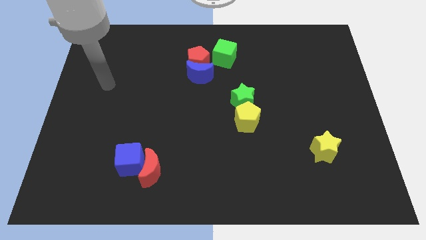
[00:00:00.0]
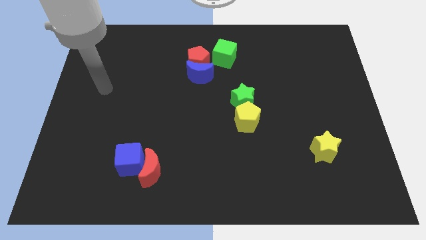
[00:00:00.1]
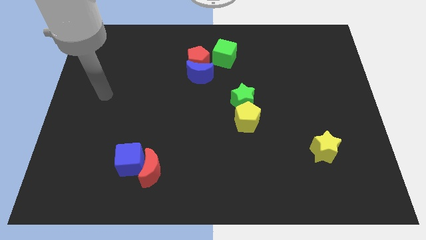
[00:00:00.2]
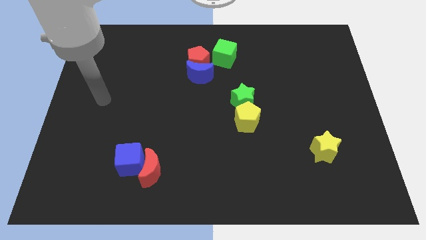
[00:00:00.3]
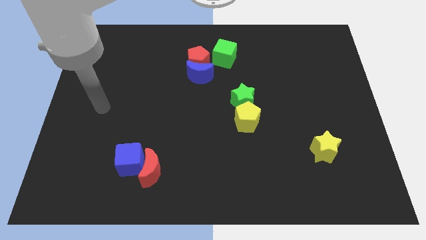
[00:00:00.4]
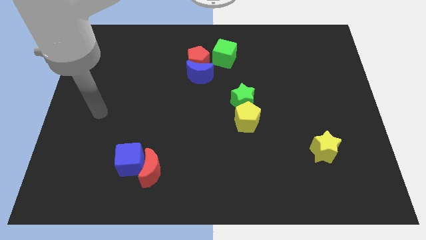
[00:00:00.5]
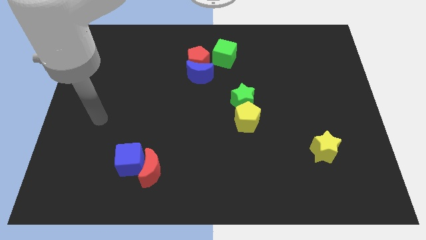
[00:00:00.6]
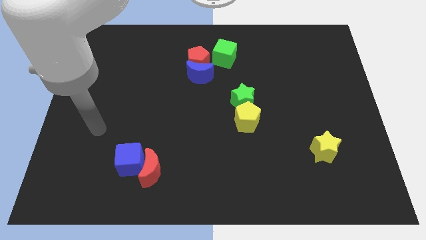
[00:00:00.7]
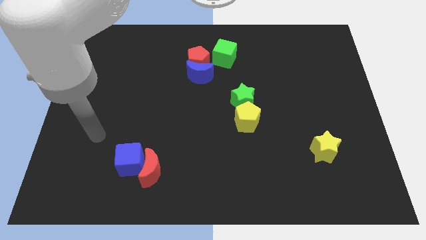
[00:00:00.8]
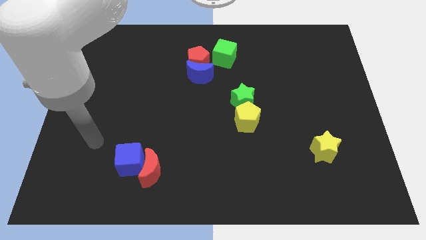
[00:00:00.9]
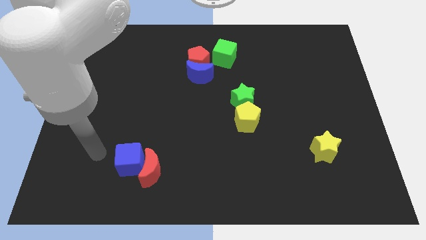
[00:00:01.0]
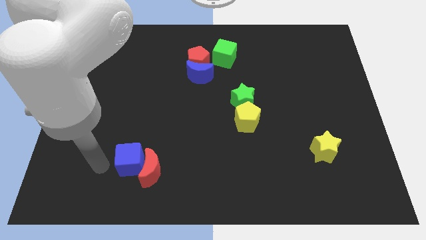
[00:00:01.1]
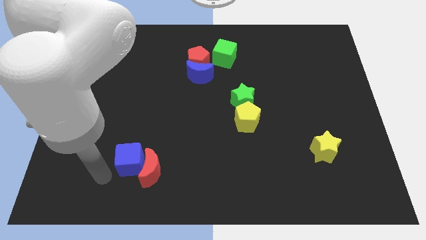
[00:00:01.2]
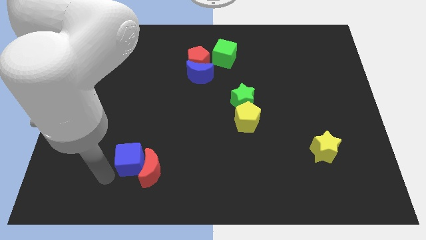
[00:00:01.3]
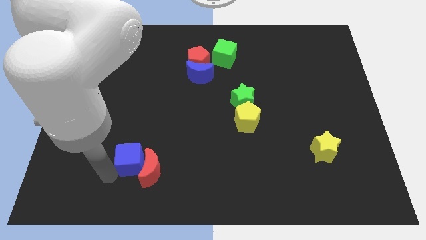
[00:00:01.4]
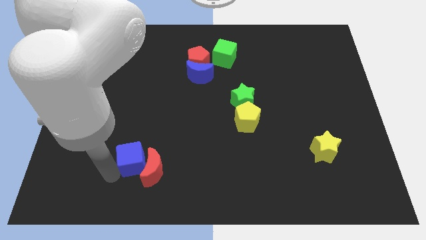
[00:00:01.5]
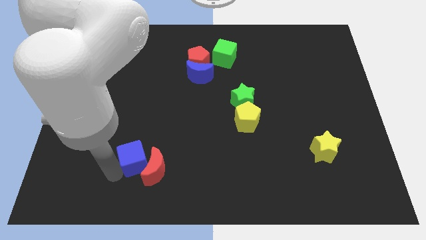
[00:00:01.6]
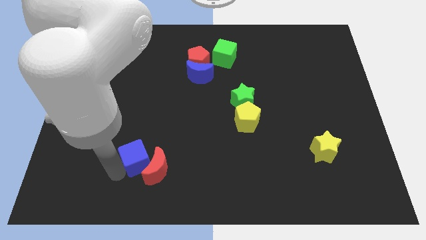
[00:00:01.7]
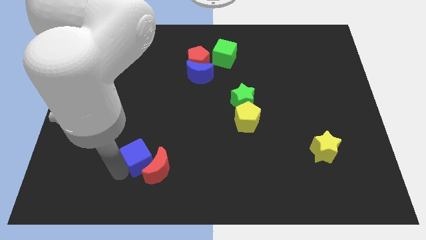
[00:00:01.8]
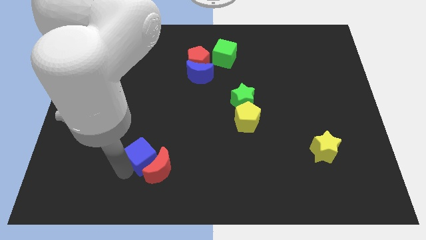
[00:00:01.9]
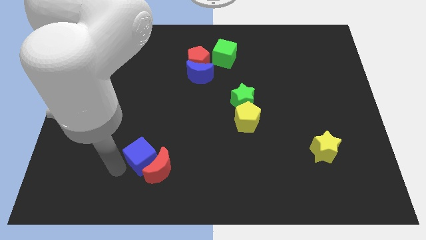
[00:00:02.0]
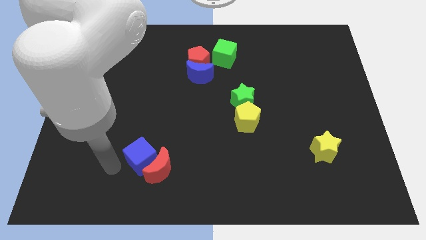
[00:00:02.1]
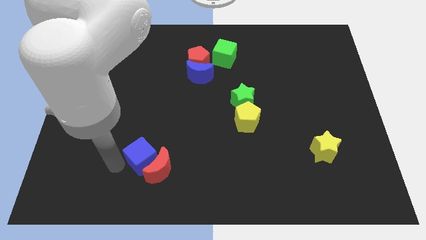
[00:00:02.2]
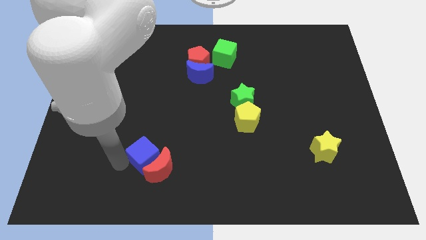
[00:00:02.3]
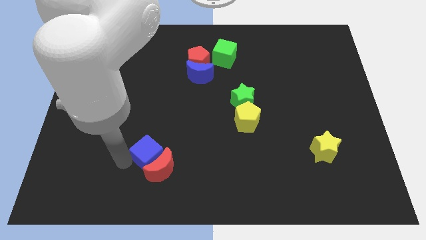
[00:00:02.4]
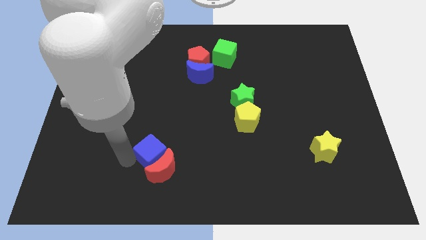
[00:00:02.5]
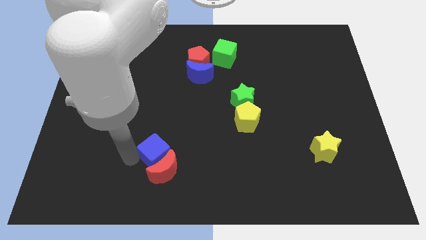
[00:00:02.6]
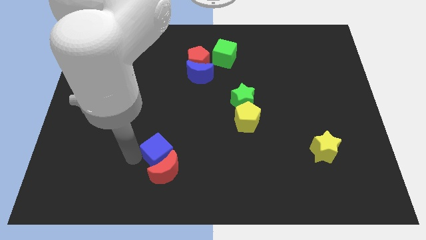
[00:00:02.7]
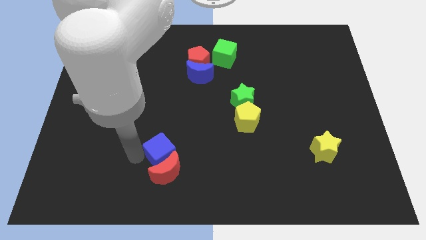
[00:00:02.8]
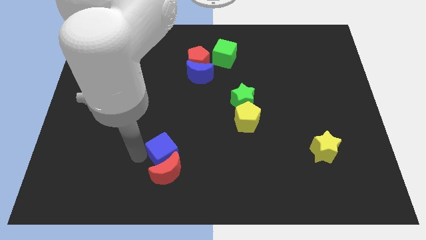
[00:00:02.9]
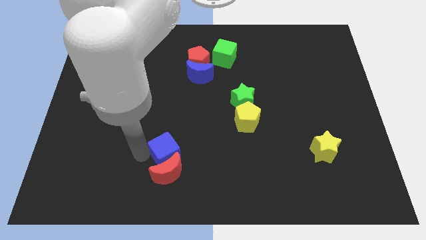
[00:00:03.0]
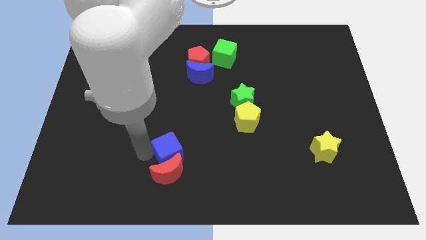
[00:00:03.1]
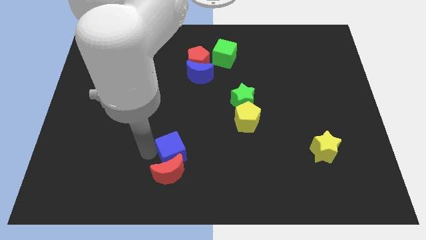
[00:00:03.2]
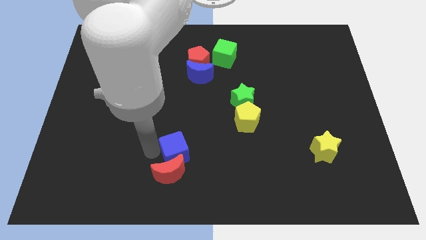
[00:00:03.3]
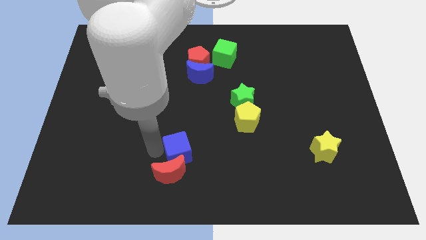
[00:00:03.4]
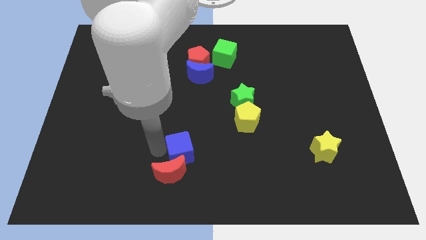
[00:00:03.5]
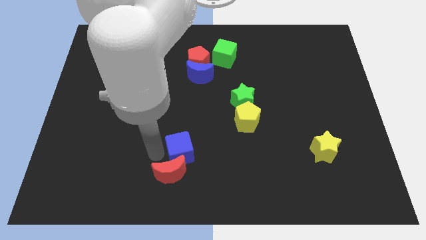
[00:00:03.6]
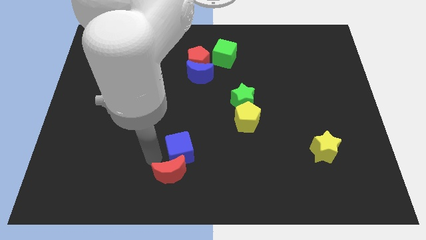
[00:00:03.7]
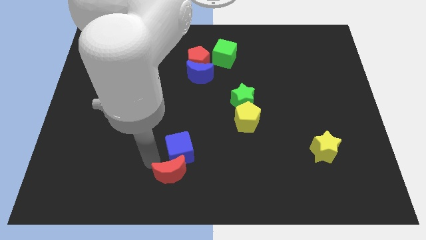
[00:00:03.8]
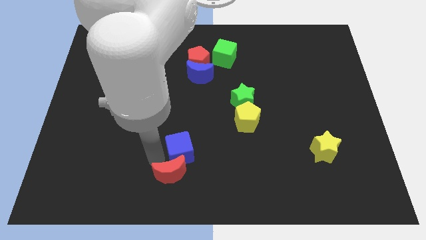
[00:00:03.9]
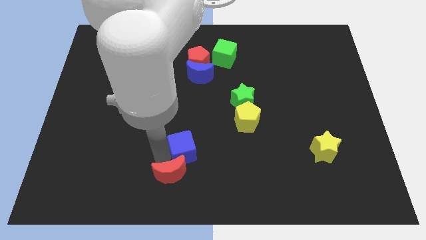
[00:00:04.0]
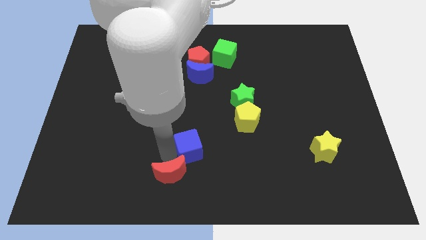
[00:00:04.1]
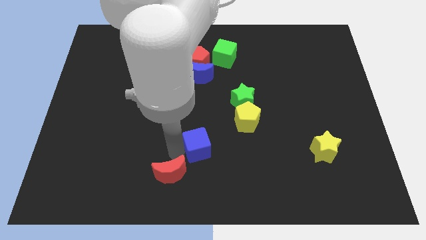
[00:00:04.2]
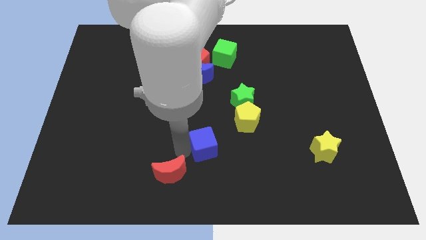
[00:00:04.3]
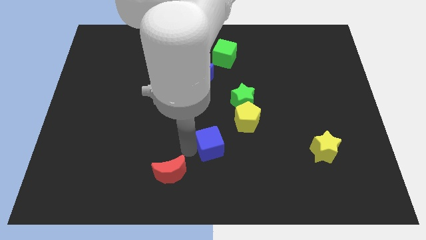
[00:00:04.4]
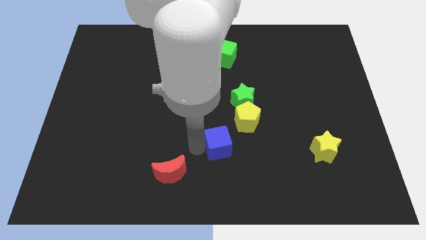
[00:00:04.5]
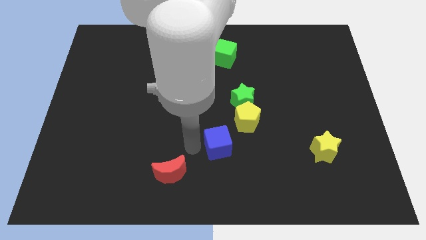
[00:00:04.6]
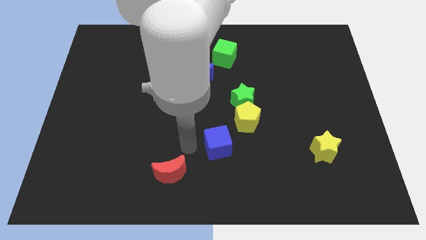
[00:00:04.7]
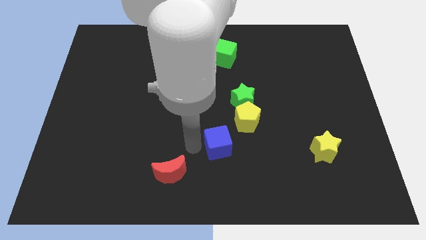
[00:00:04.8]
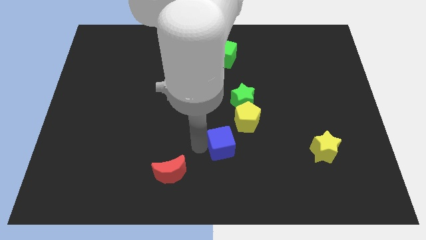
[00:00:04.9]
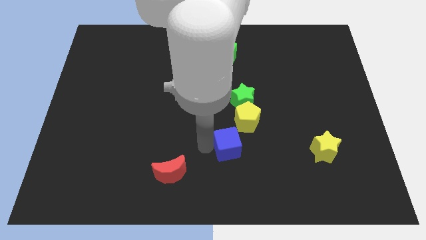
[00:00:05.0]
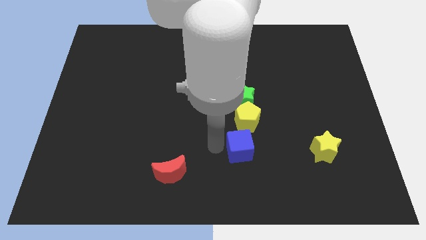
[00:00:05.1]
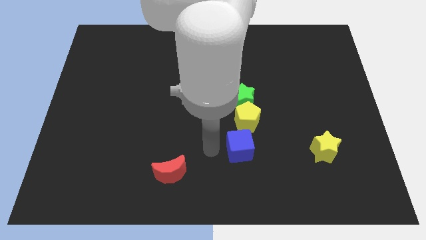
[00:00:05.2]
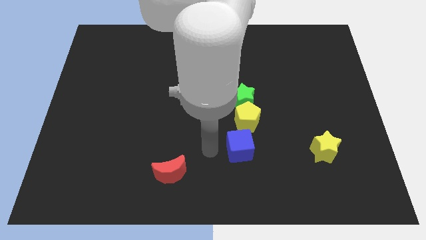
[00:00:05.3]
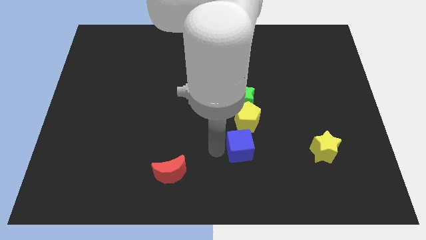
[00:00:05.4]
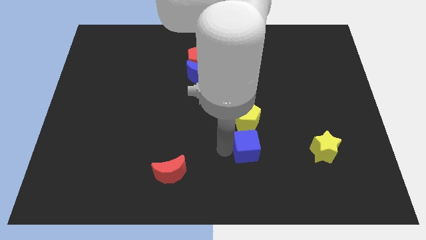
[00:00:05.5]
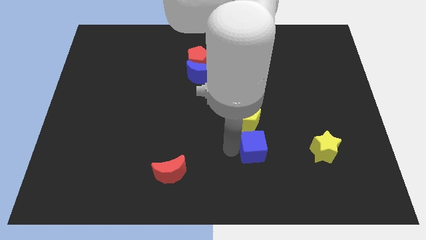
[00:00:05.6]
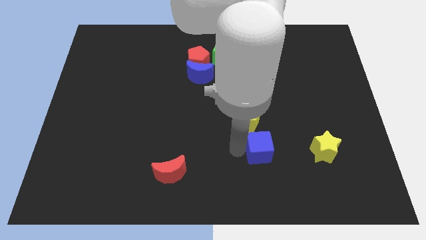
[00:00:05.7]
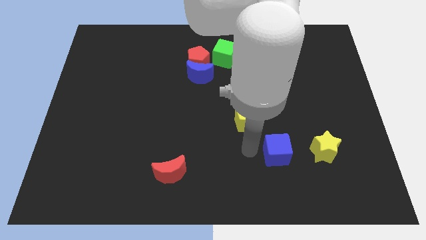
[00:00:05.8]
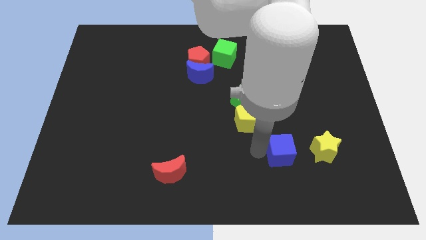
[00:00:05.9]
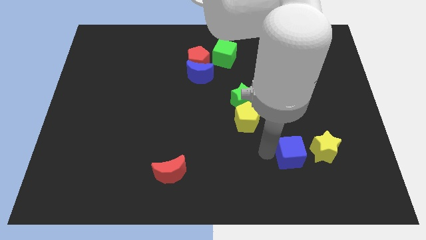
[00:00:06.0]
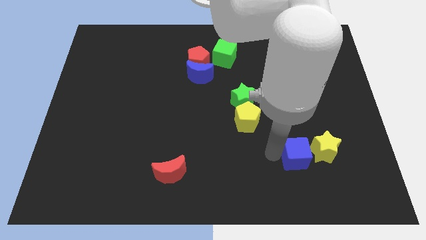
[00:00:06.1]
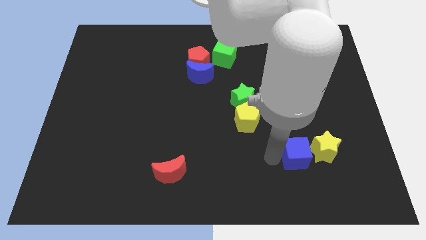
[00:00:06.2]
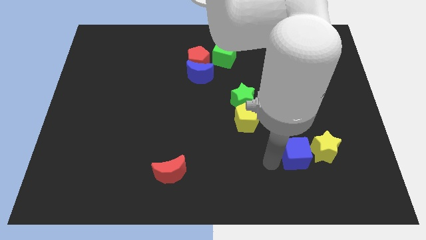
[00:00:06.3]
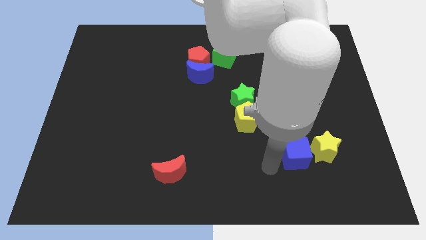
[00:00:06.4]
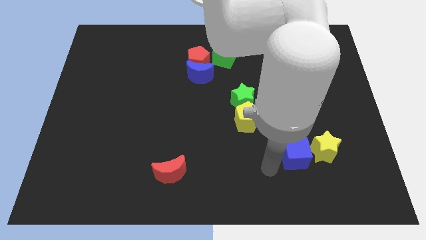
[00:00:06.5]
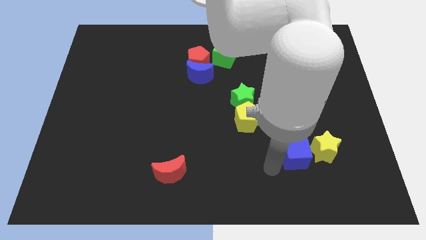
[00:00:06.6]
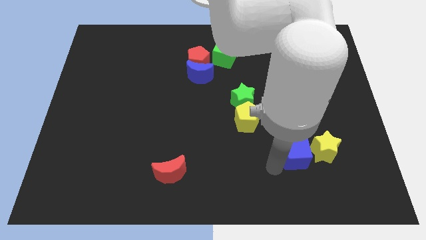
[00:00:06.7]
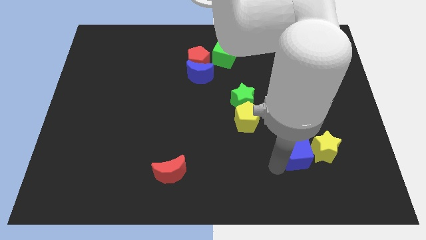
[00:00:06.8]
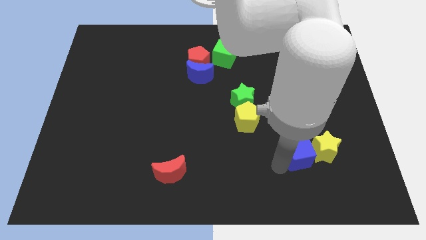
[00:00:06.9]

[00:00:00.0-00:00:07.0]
slide the blue cube next to the yellow star
